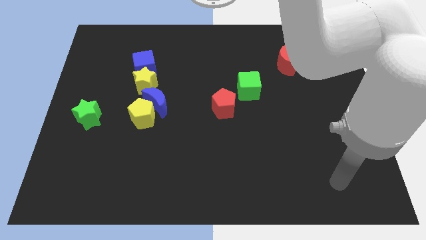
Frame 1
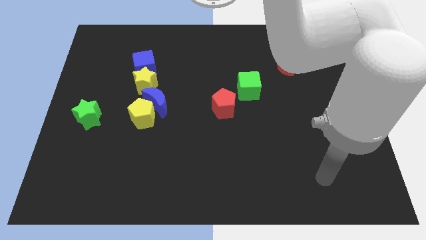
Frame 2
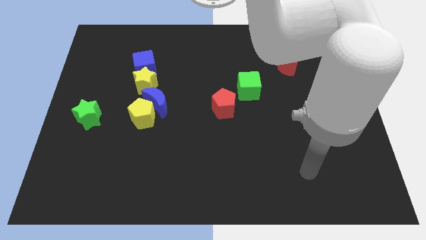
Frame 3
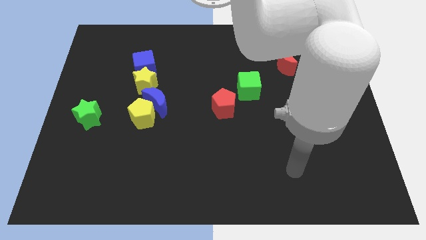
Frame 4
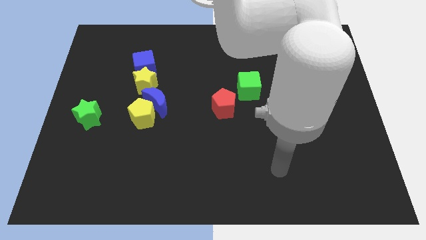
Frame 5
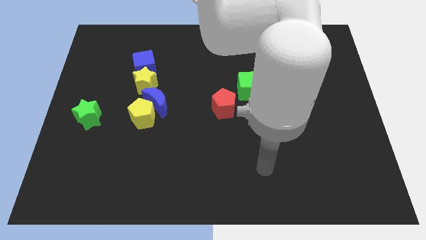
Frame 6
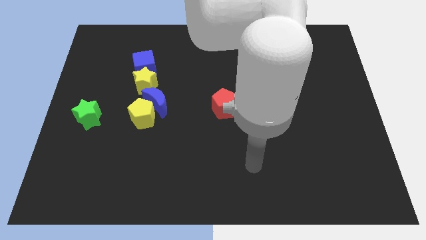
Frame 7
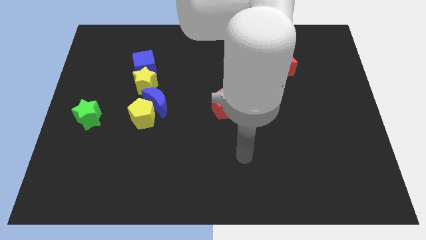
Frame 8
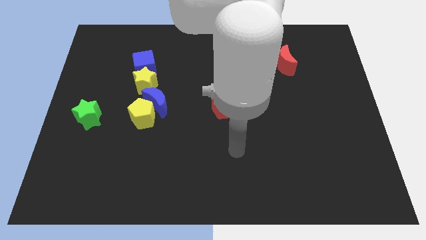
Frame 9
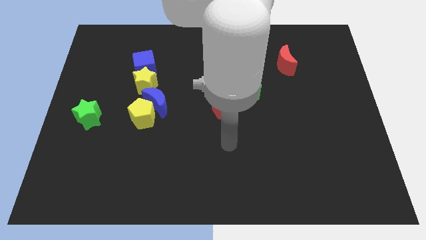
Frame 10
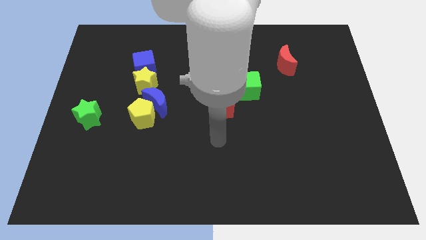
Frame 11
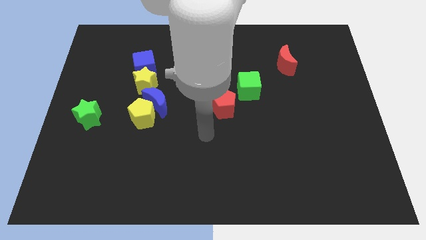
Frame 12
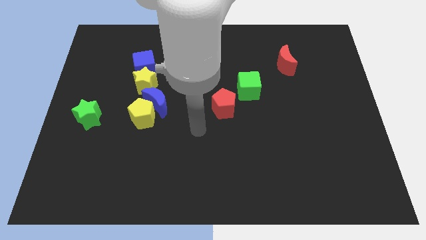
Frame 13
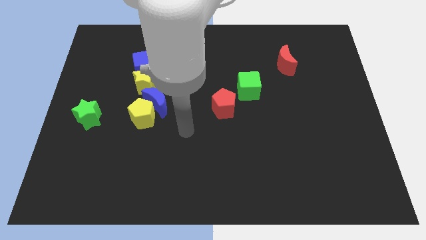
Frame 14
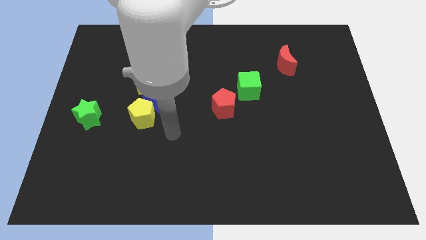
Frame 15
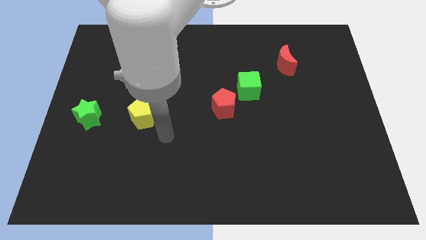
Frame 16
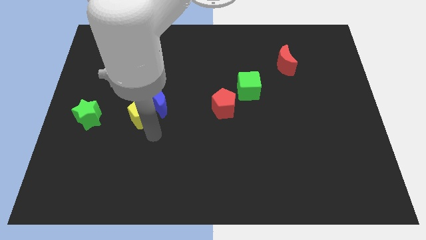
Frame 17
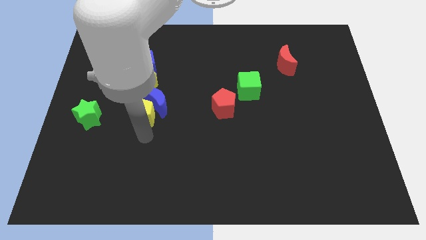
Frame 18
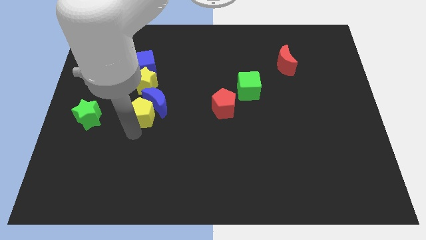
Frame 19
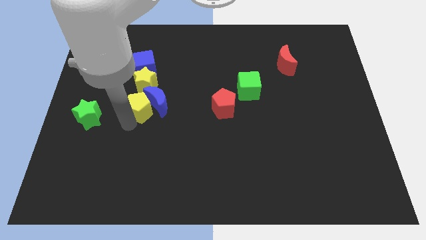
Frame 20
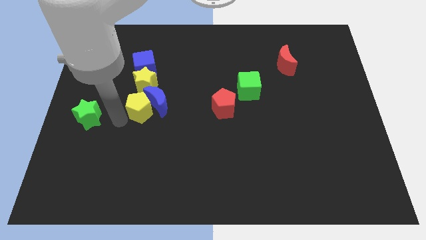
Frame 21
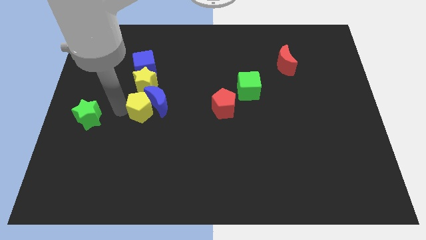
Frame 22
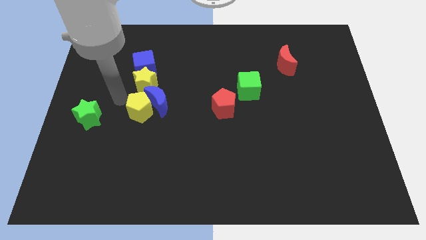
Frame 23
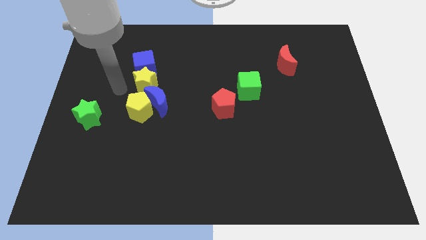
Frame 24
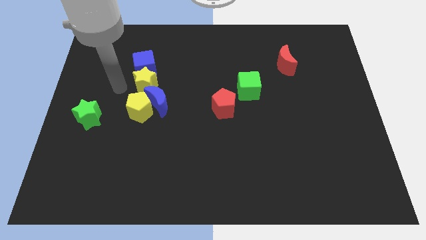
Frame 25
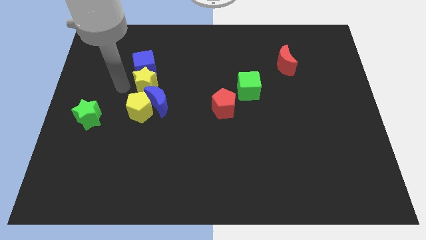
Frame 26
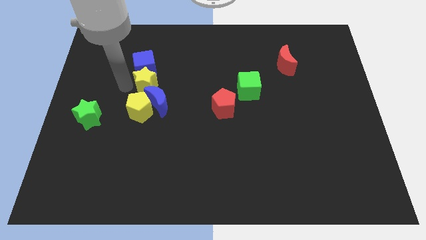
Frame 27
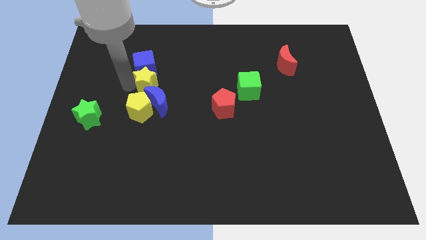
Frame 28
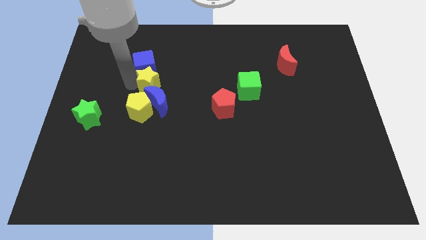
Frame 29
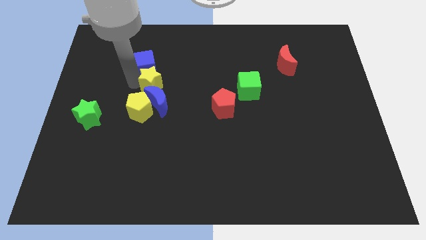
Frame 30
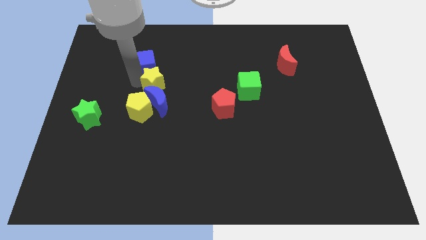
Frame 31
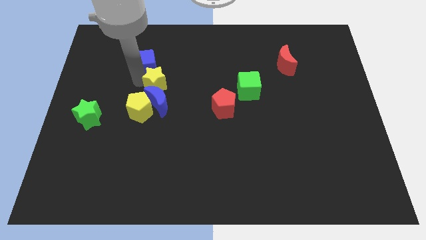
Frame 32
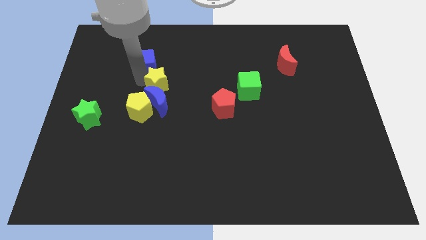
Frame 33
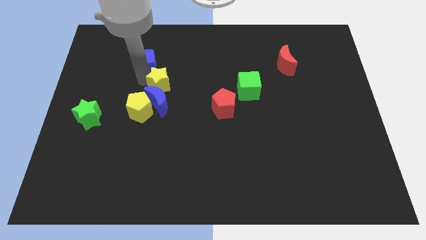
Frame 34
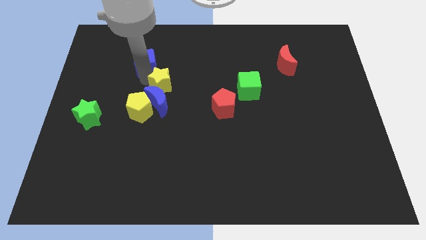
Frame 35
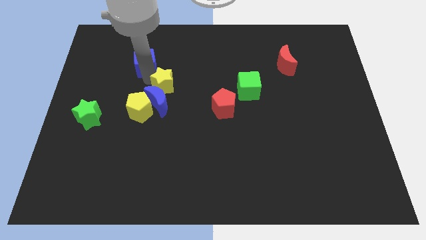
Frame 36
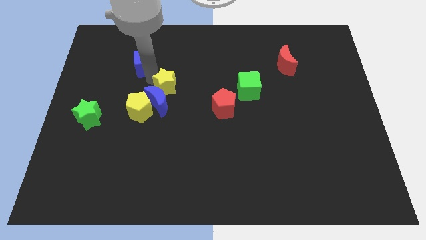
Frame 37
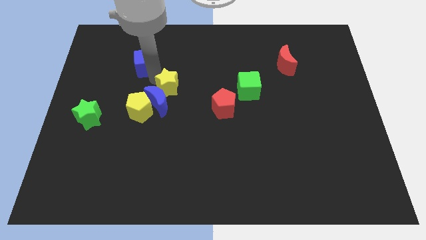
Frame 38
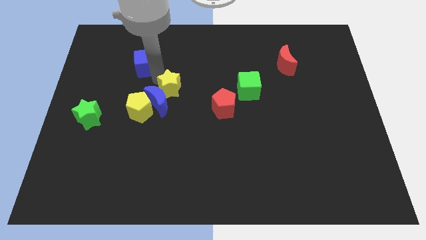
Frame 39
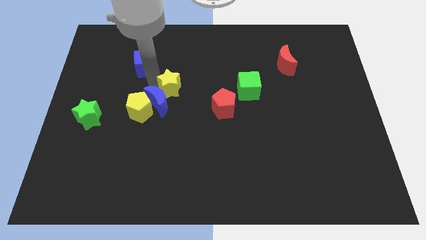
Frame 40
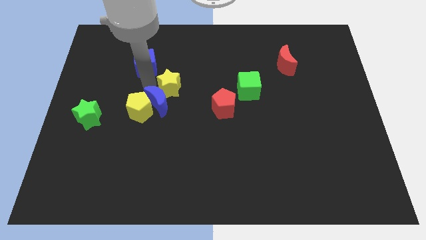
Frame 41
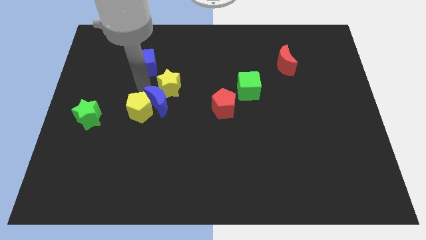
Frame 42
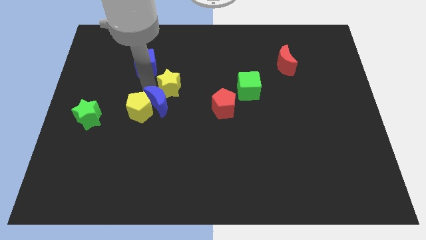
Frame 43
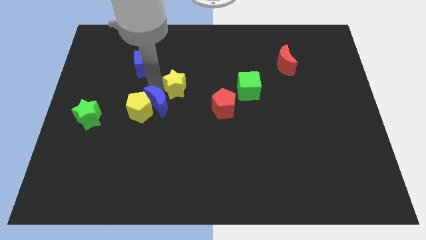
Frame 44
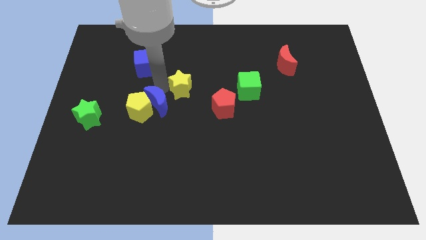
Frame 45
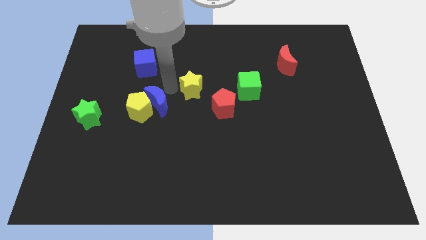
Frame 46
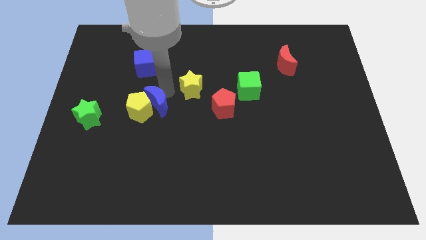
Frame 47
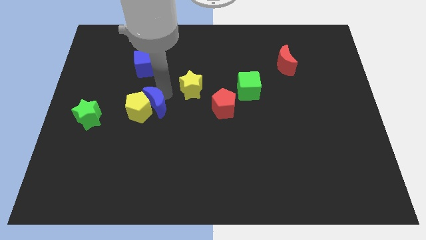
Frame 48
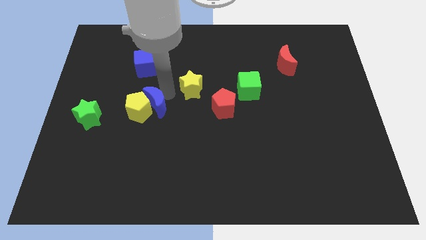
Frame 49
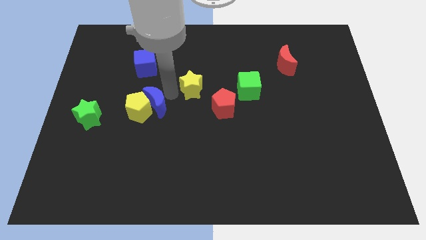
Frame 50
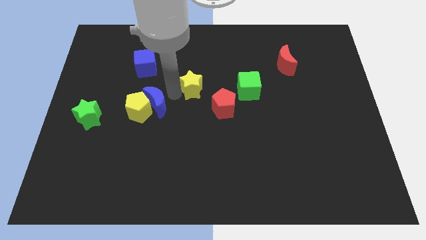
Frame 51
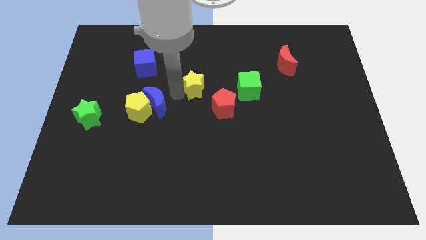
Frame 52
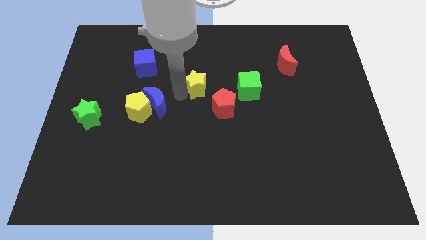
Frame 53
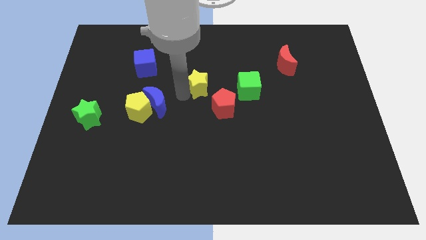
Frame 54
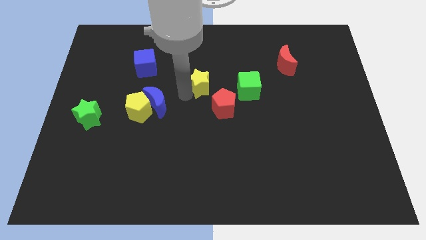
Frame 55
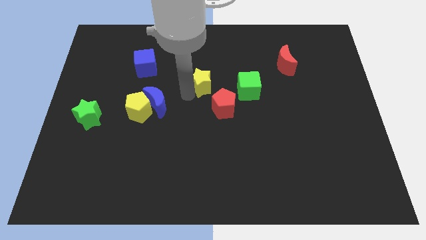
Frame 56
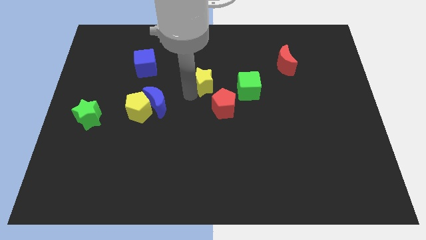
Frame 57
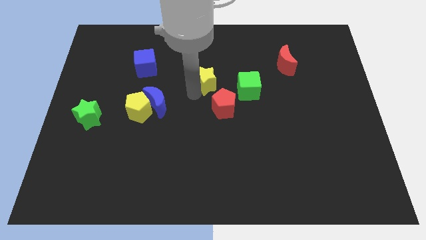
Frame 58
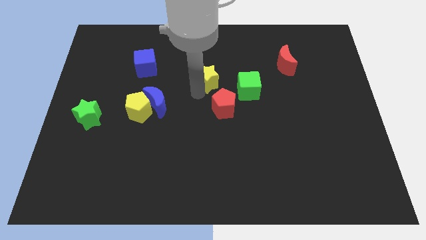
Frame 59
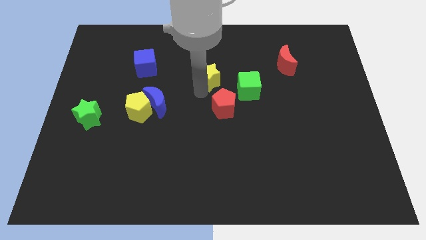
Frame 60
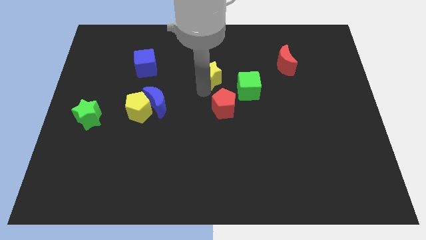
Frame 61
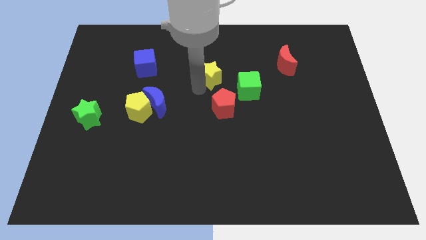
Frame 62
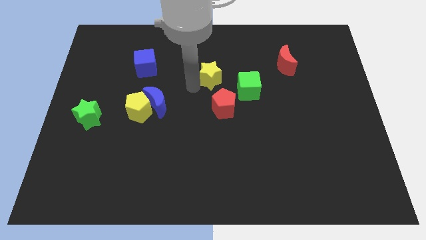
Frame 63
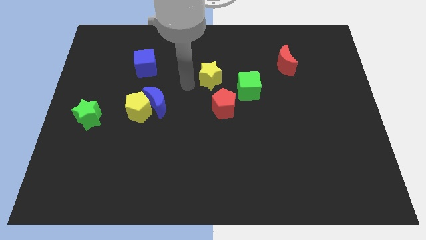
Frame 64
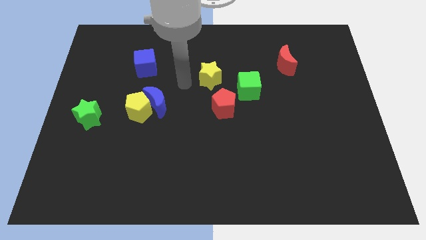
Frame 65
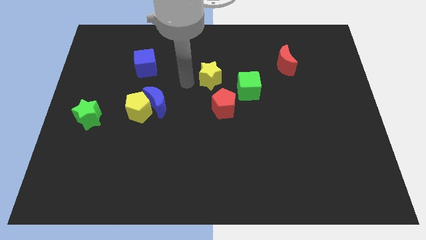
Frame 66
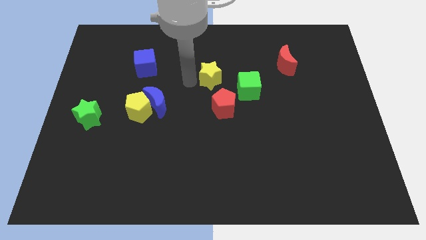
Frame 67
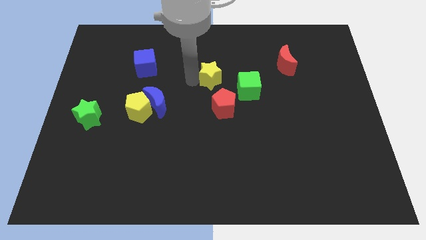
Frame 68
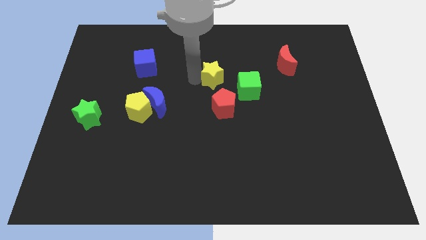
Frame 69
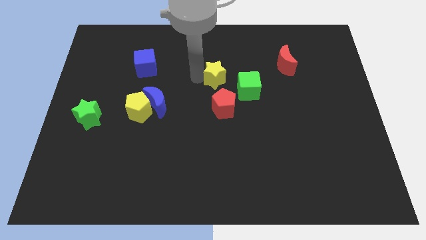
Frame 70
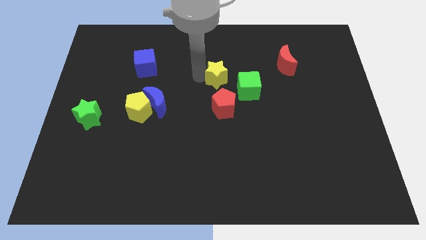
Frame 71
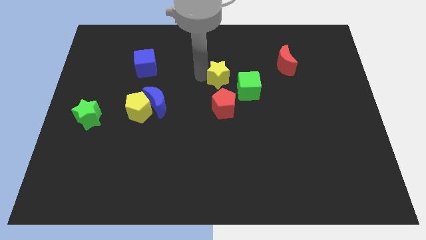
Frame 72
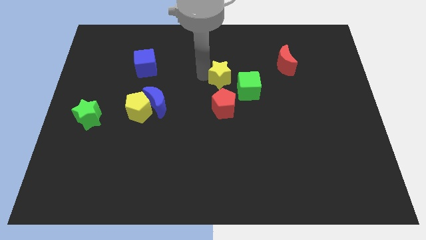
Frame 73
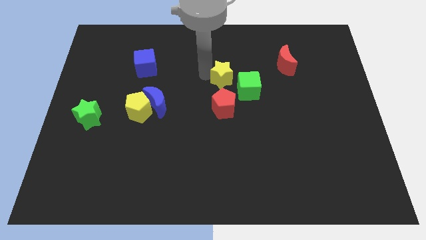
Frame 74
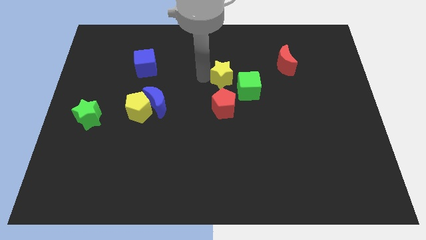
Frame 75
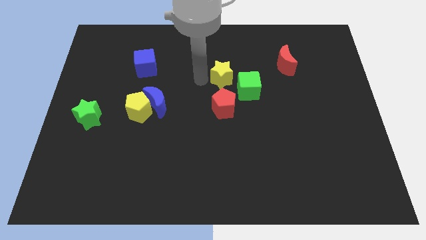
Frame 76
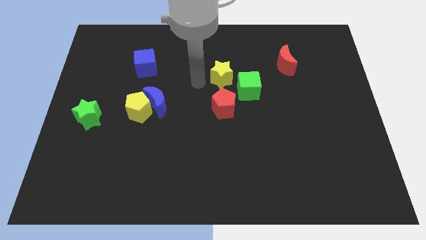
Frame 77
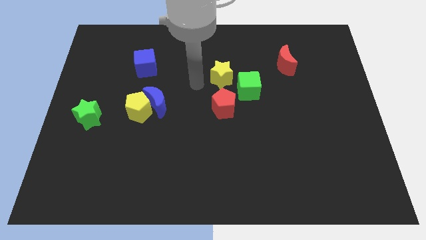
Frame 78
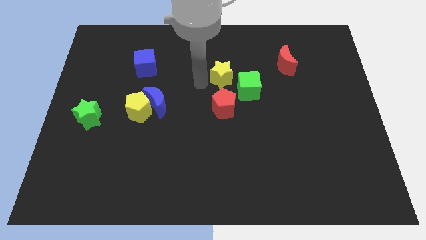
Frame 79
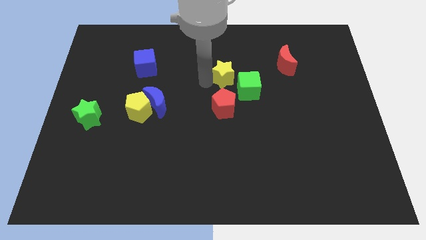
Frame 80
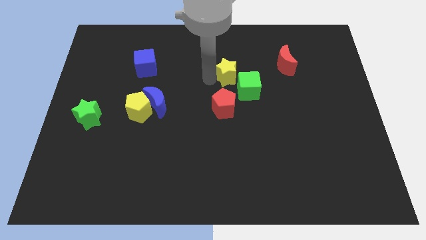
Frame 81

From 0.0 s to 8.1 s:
slide the yellow star to the right
